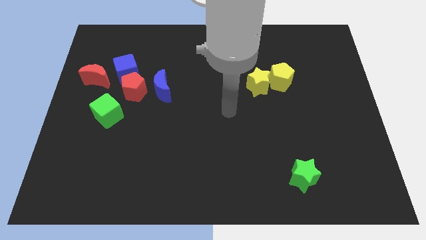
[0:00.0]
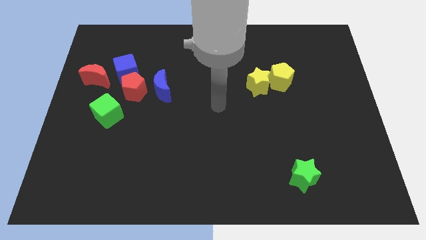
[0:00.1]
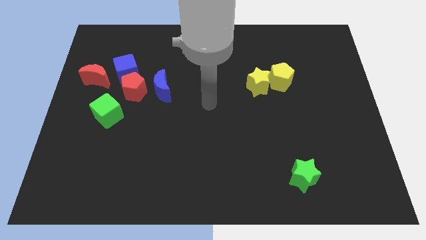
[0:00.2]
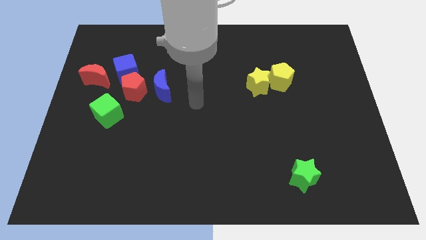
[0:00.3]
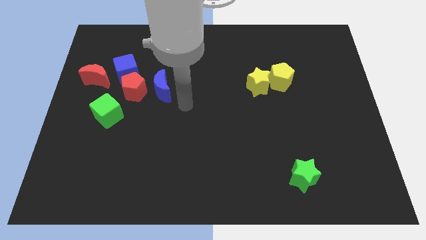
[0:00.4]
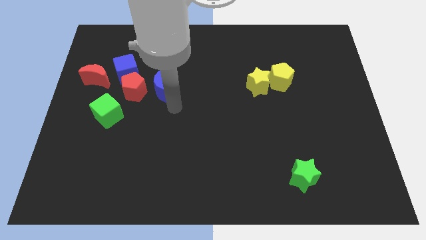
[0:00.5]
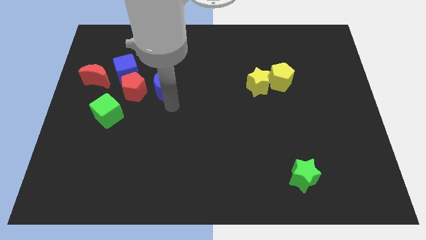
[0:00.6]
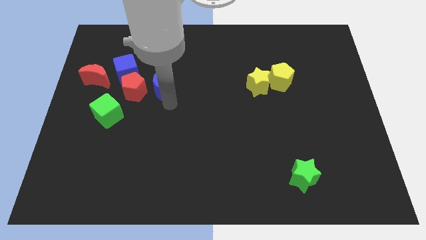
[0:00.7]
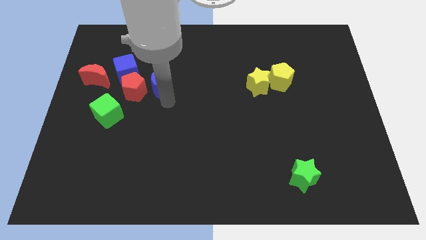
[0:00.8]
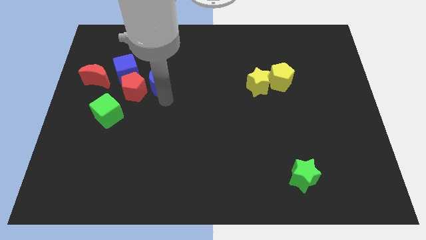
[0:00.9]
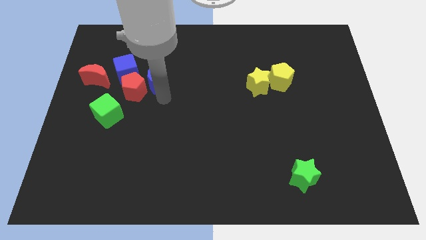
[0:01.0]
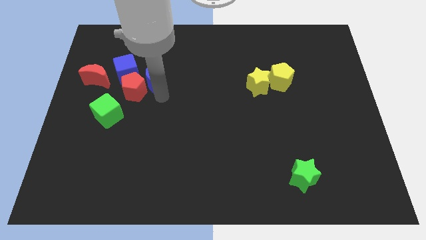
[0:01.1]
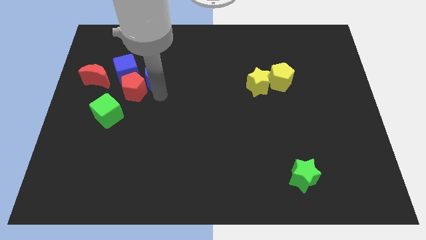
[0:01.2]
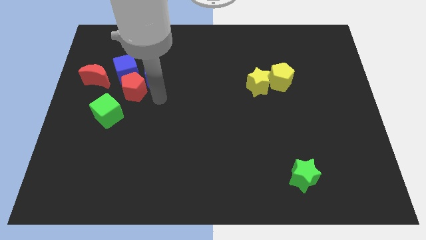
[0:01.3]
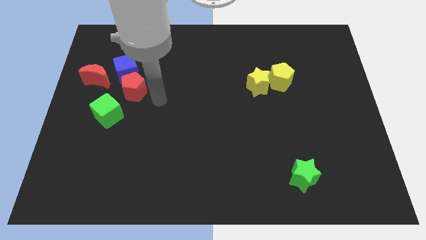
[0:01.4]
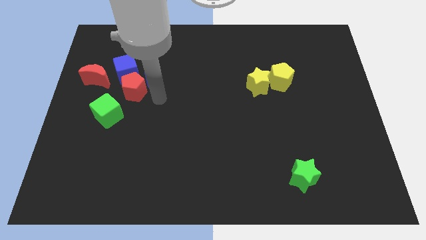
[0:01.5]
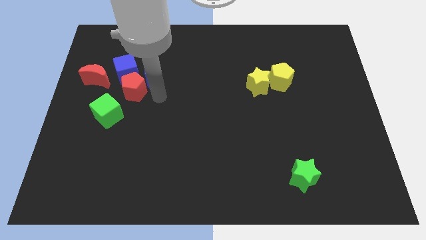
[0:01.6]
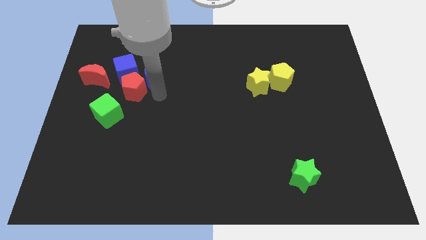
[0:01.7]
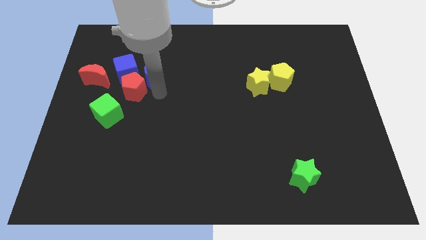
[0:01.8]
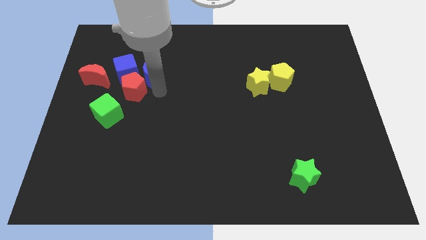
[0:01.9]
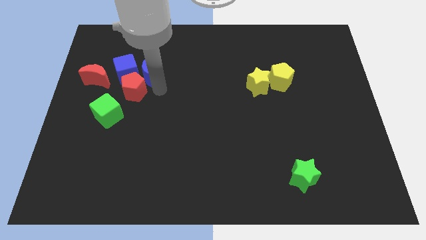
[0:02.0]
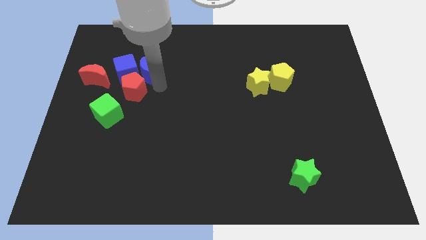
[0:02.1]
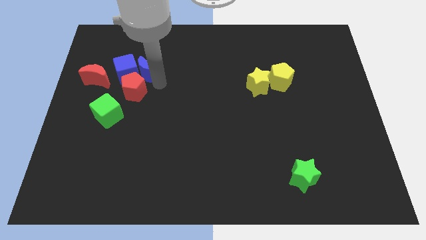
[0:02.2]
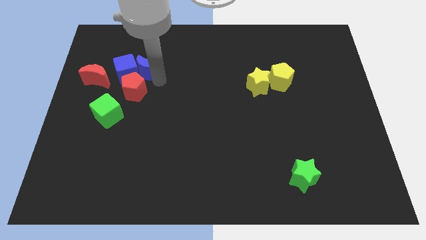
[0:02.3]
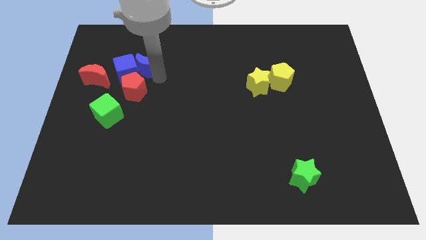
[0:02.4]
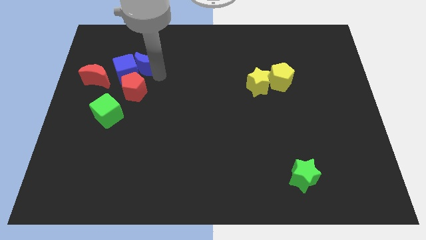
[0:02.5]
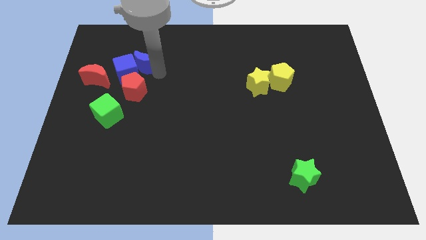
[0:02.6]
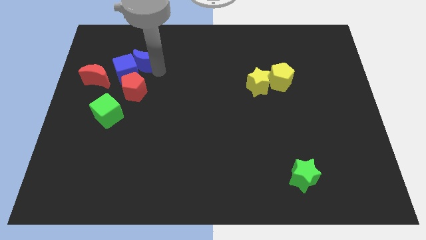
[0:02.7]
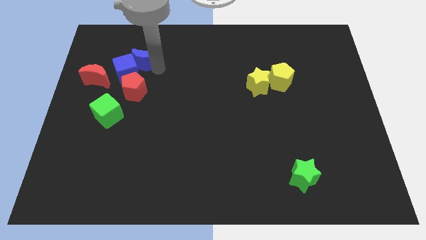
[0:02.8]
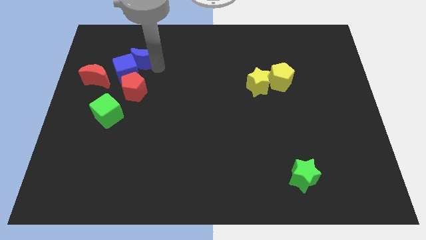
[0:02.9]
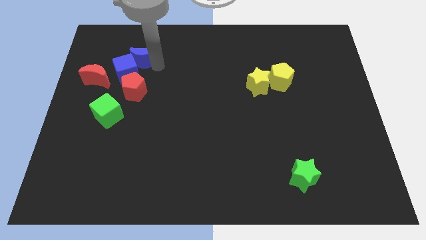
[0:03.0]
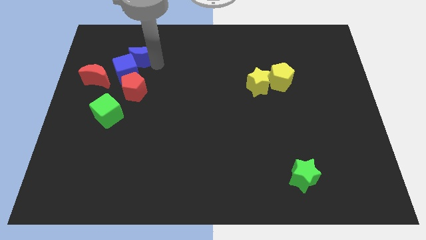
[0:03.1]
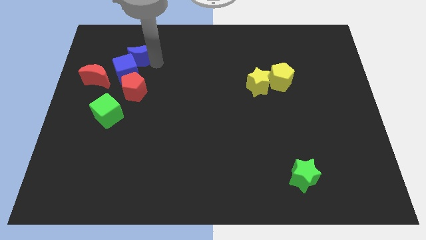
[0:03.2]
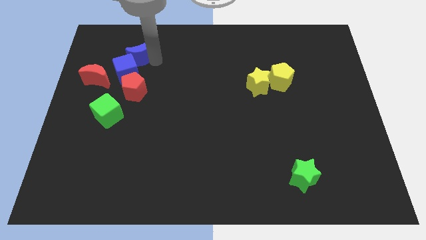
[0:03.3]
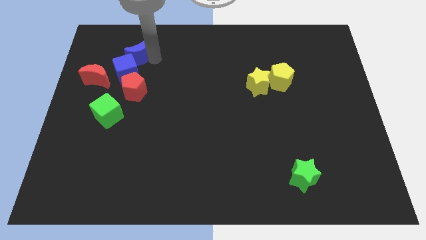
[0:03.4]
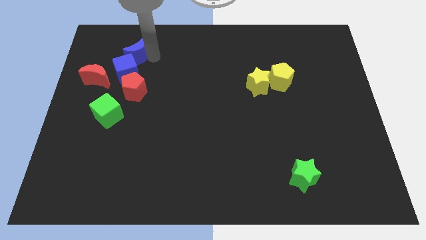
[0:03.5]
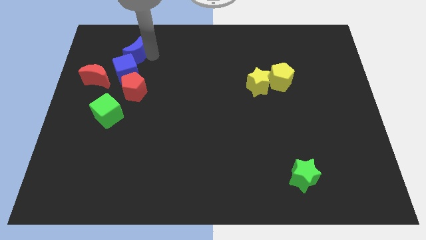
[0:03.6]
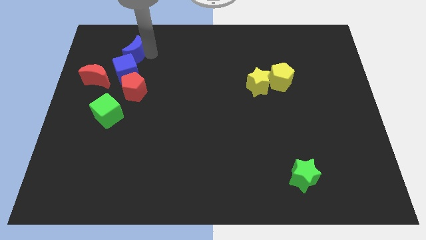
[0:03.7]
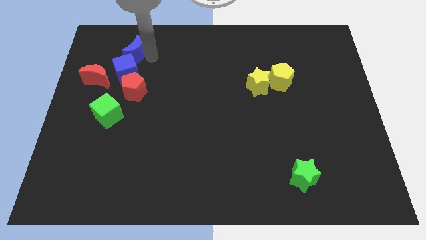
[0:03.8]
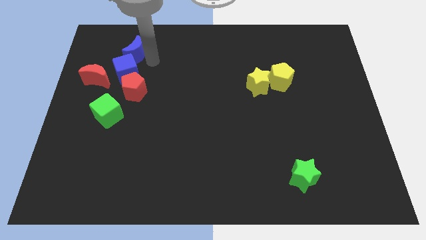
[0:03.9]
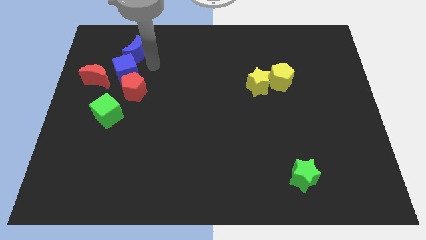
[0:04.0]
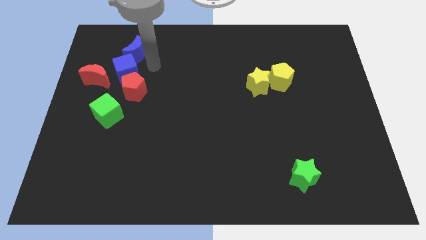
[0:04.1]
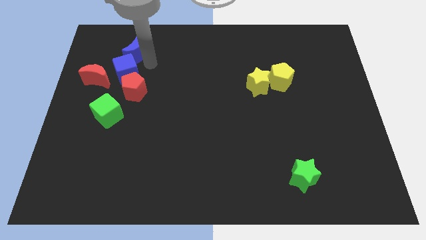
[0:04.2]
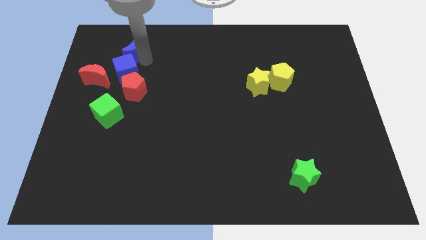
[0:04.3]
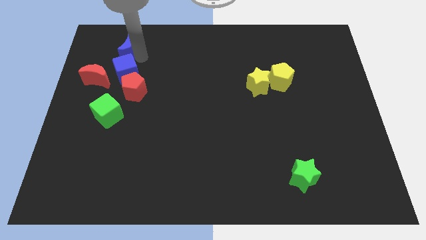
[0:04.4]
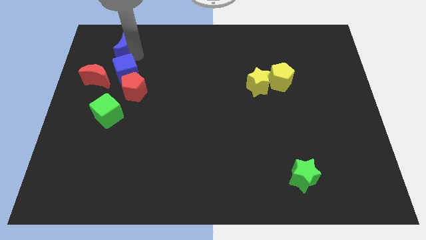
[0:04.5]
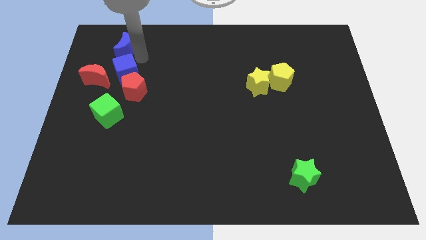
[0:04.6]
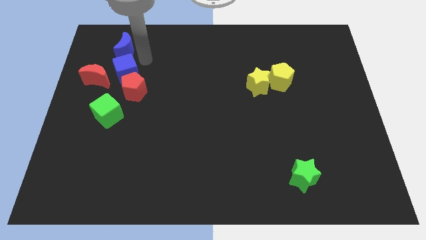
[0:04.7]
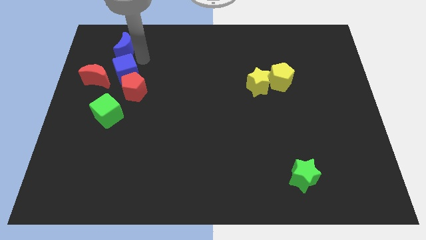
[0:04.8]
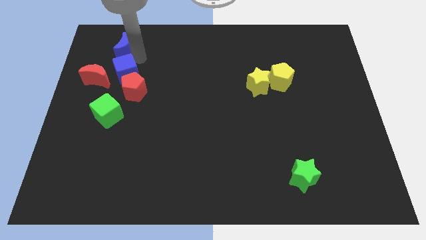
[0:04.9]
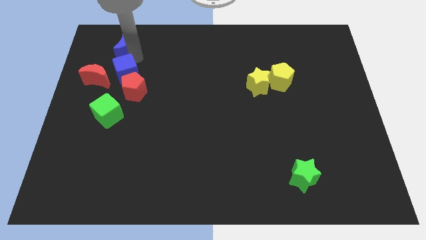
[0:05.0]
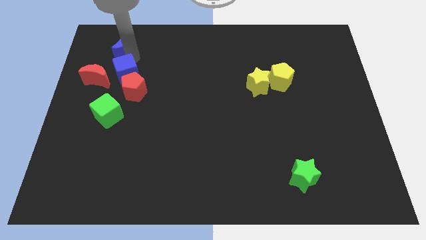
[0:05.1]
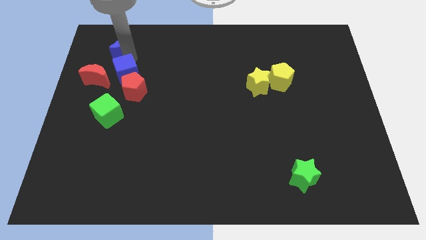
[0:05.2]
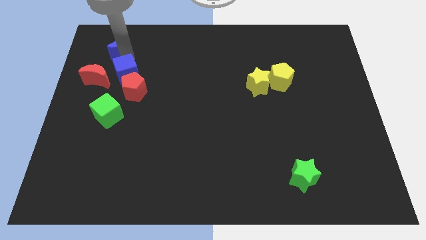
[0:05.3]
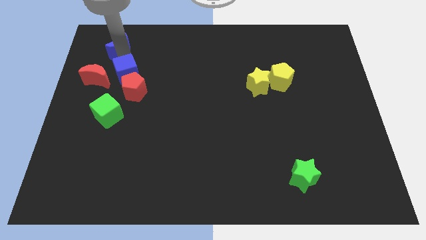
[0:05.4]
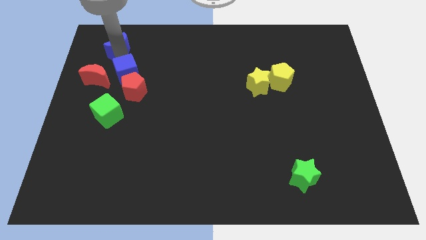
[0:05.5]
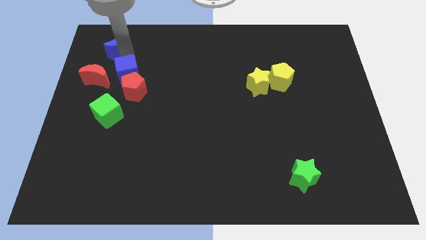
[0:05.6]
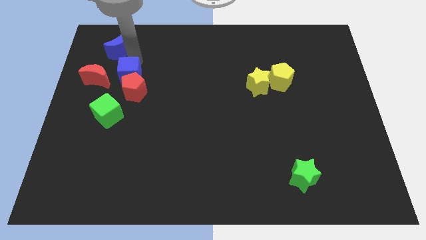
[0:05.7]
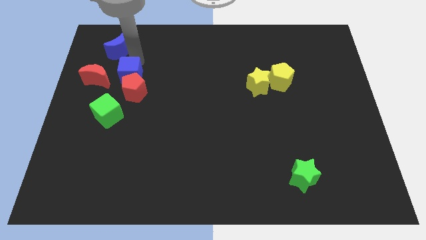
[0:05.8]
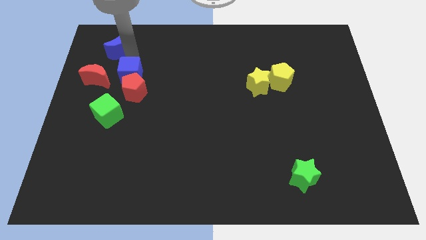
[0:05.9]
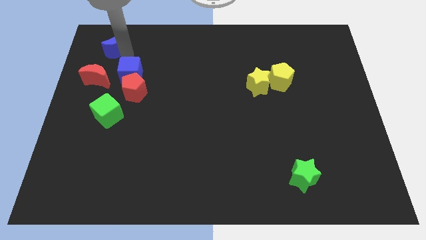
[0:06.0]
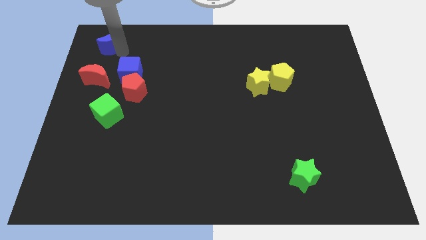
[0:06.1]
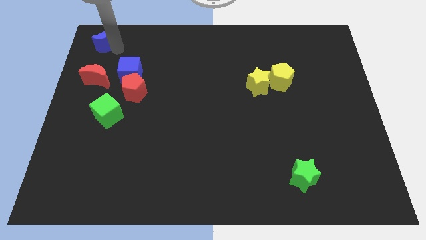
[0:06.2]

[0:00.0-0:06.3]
move the blue moon to the top left of the board
